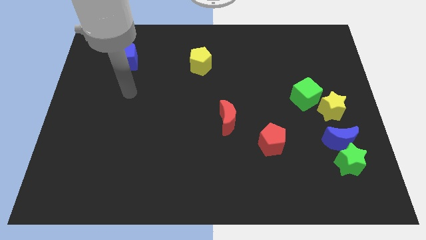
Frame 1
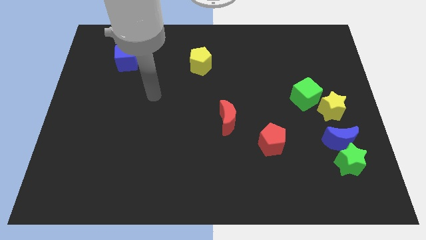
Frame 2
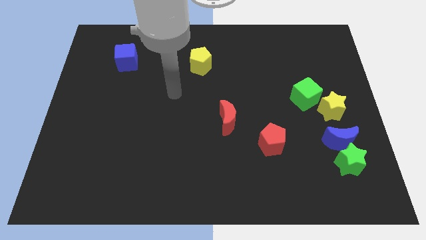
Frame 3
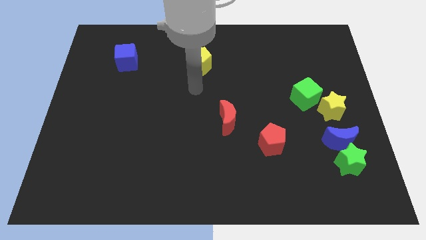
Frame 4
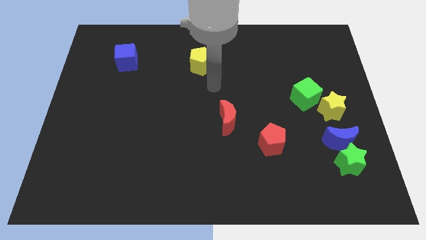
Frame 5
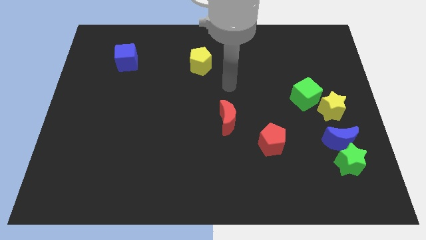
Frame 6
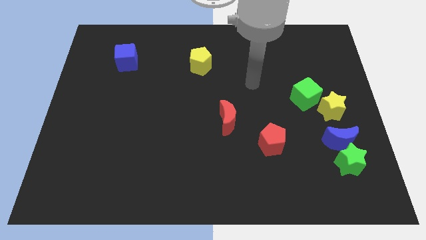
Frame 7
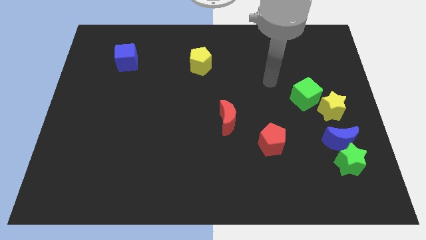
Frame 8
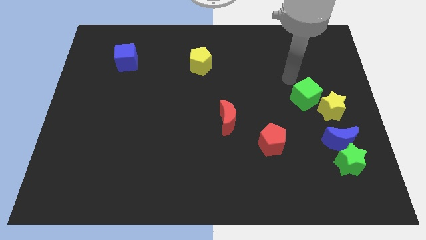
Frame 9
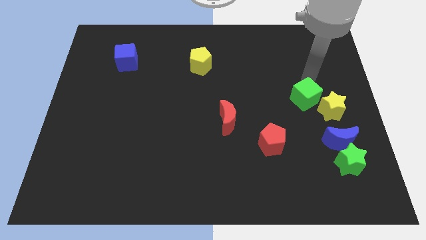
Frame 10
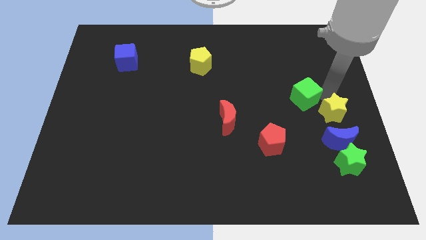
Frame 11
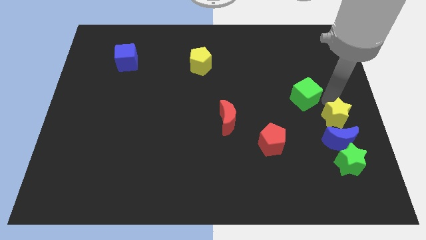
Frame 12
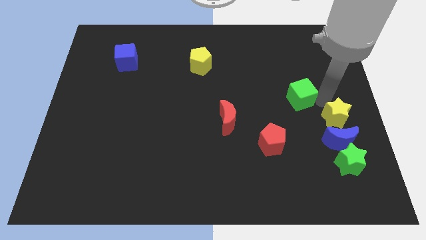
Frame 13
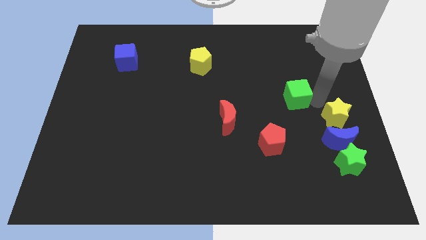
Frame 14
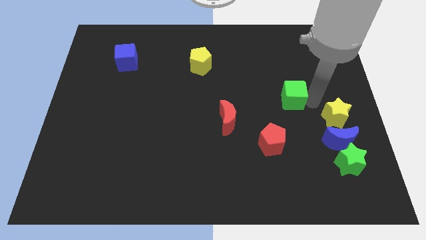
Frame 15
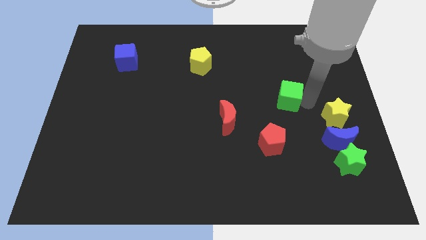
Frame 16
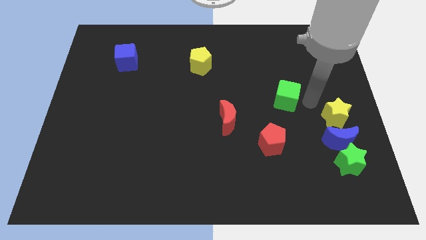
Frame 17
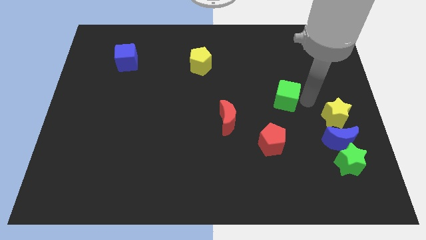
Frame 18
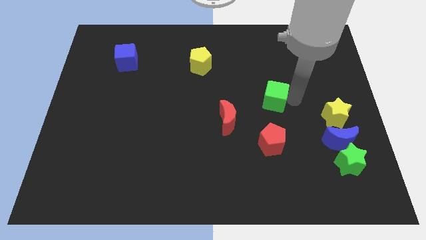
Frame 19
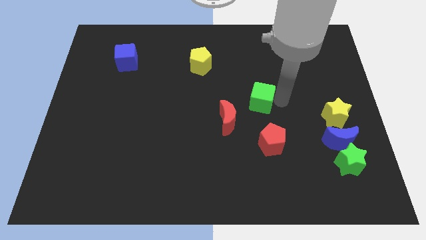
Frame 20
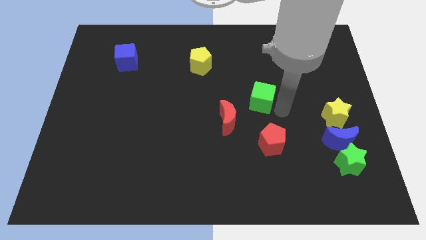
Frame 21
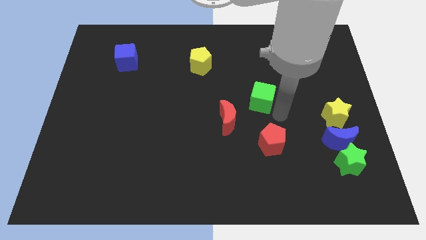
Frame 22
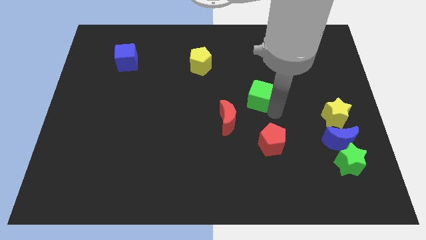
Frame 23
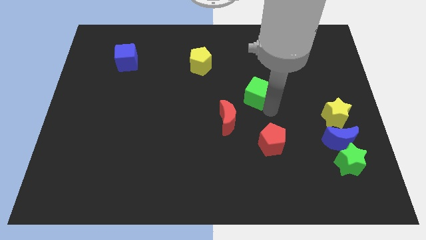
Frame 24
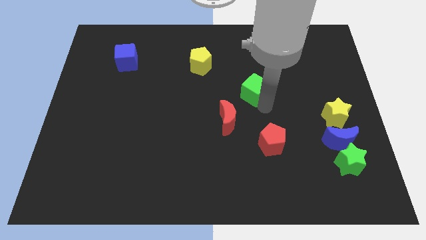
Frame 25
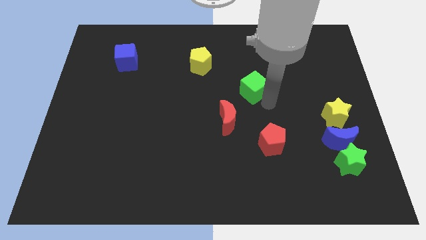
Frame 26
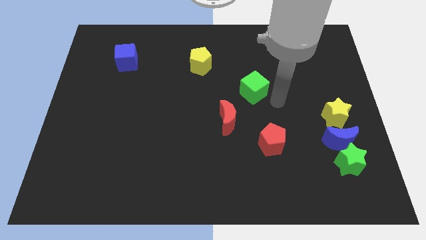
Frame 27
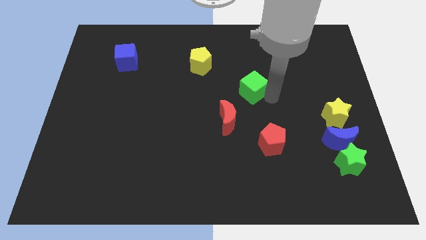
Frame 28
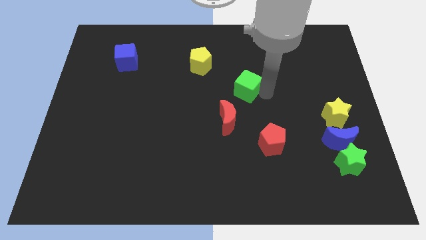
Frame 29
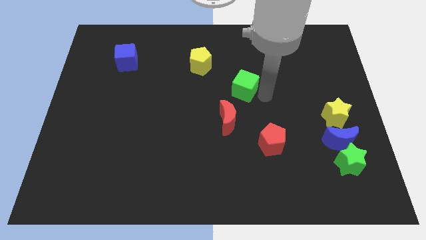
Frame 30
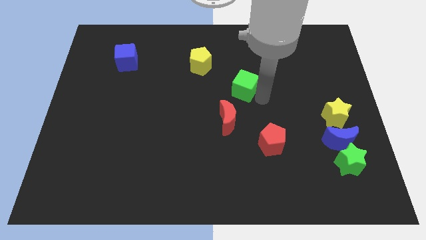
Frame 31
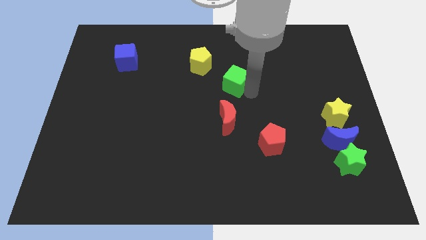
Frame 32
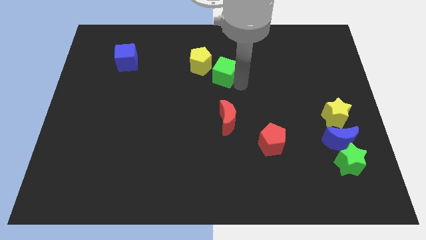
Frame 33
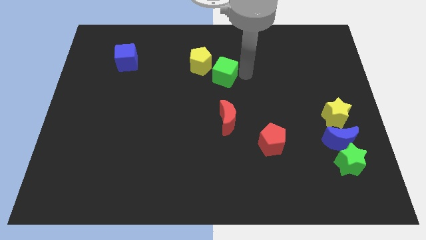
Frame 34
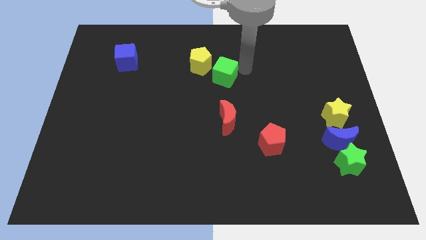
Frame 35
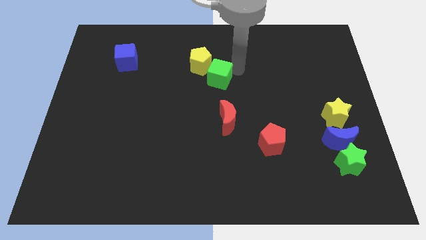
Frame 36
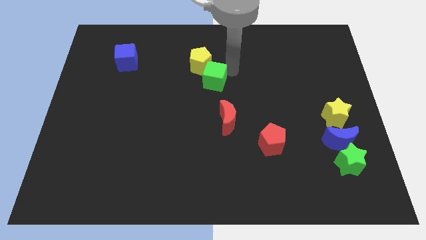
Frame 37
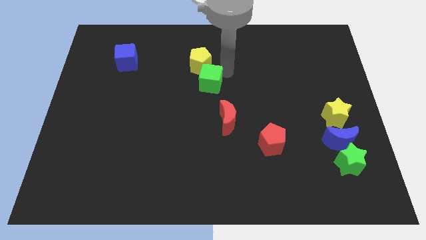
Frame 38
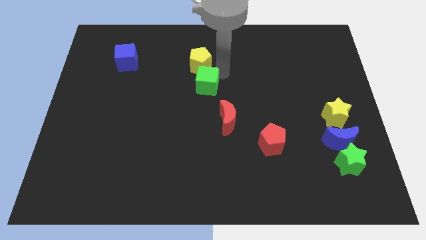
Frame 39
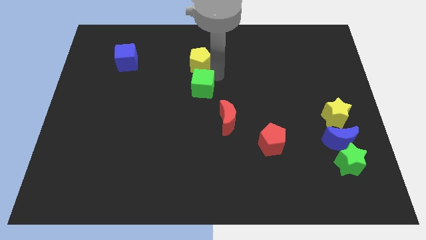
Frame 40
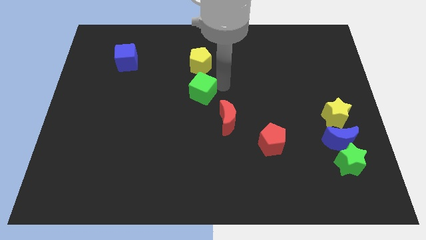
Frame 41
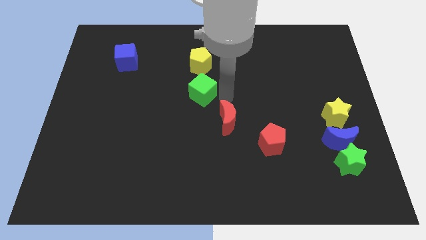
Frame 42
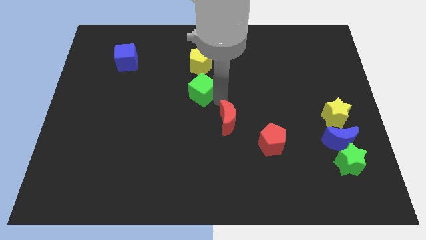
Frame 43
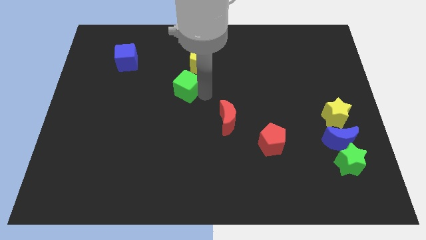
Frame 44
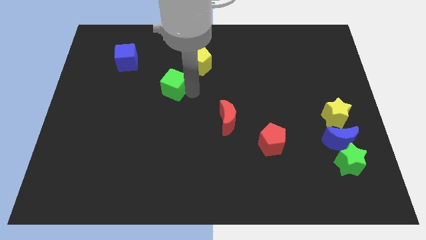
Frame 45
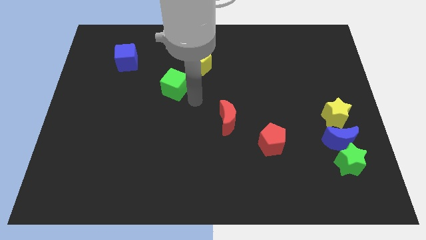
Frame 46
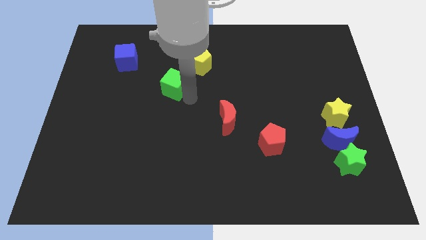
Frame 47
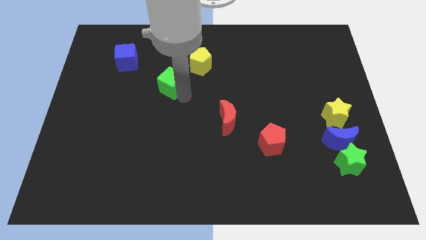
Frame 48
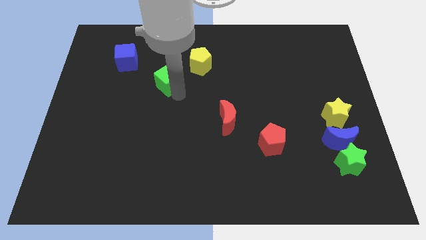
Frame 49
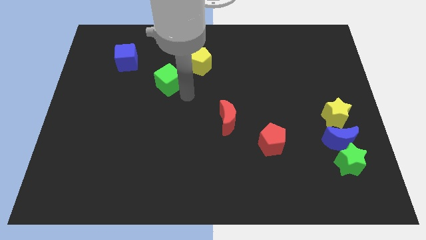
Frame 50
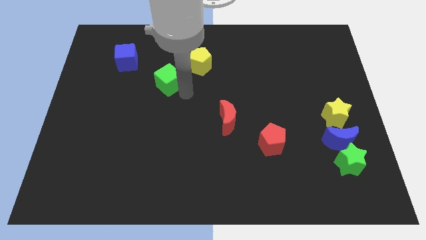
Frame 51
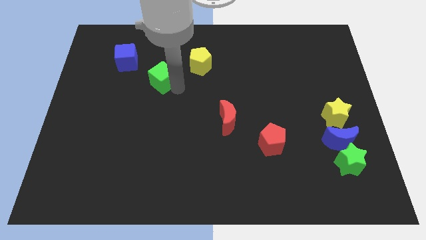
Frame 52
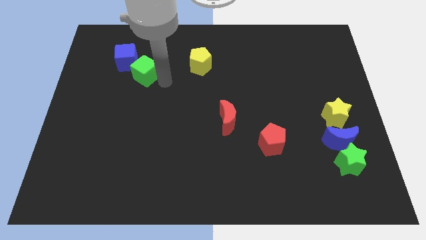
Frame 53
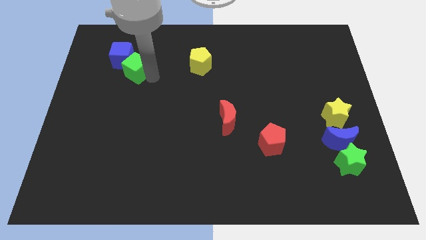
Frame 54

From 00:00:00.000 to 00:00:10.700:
move the green cube close to the blue cube

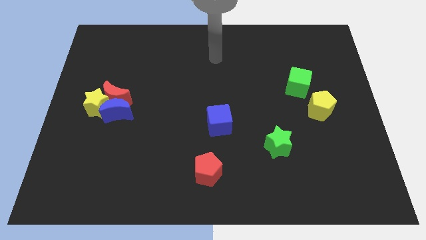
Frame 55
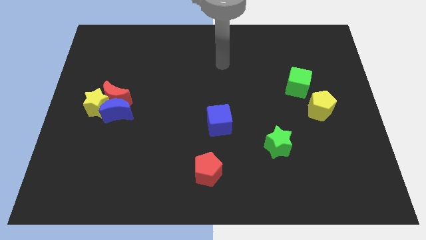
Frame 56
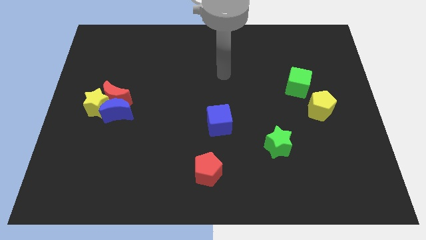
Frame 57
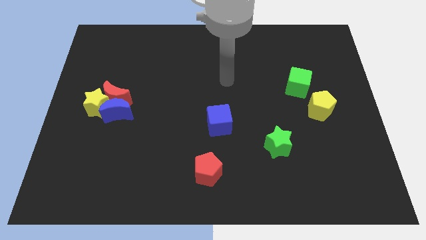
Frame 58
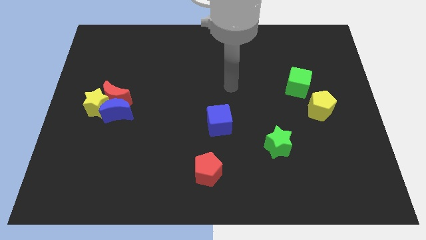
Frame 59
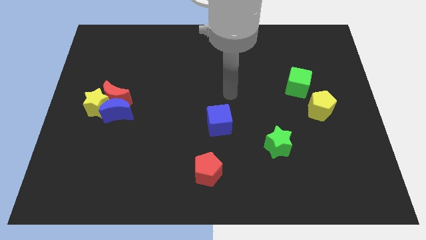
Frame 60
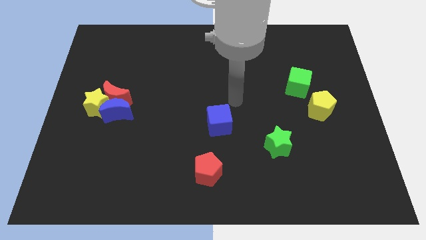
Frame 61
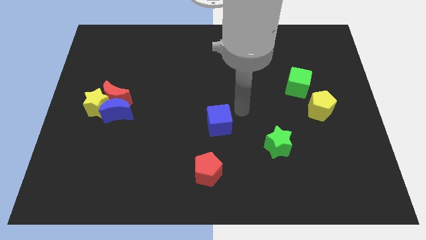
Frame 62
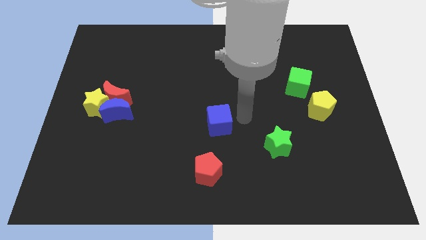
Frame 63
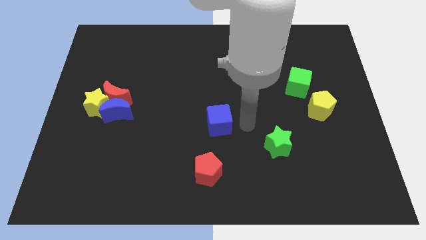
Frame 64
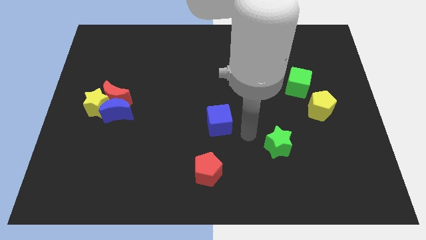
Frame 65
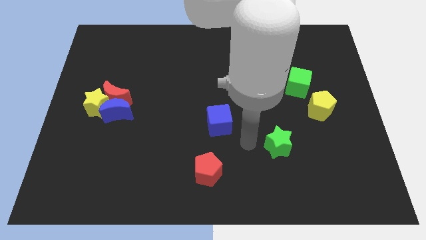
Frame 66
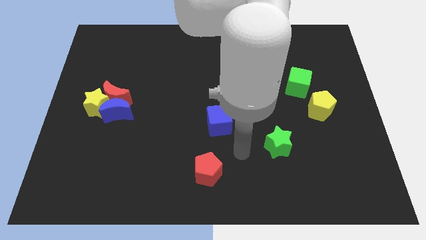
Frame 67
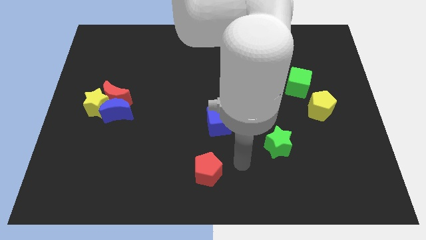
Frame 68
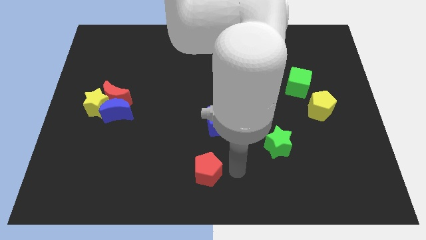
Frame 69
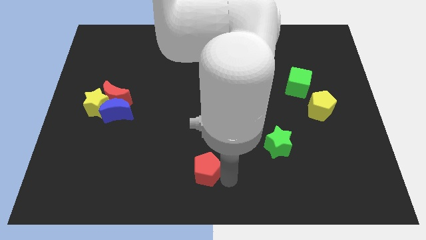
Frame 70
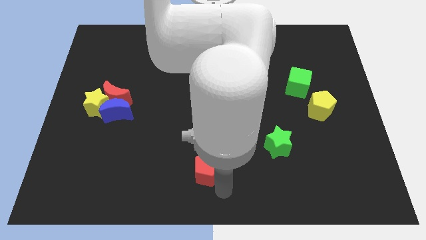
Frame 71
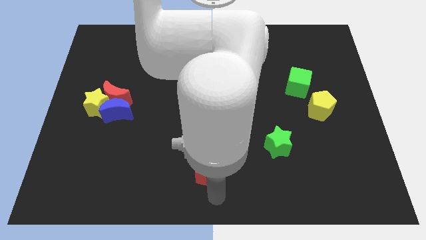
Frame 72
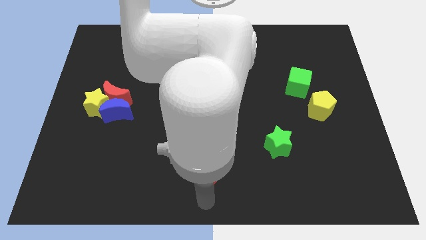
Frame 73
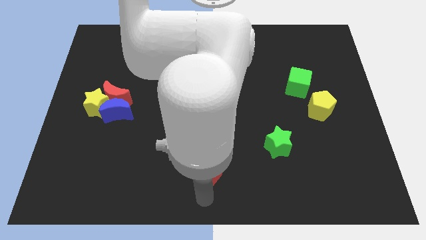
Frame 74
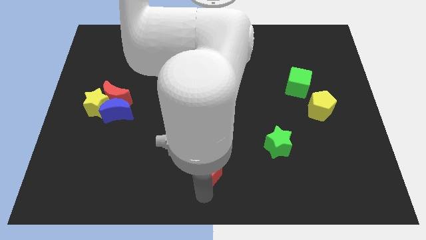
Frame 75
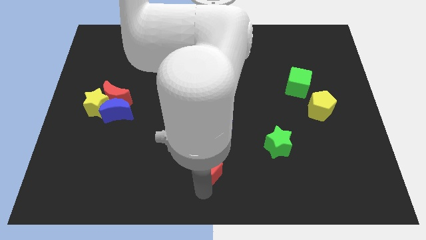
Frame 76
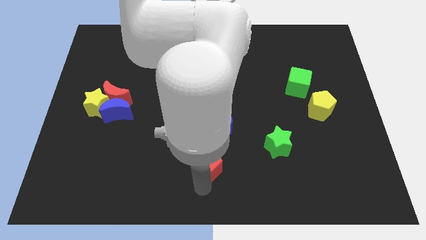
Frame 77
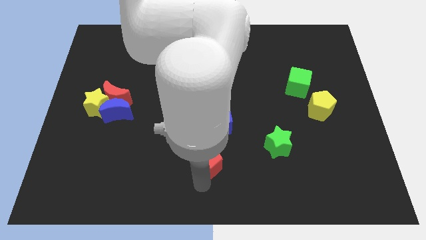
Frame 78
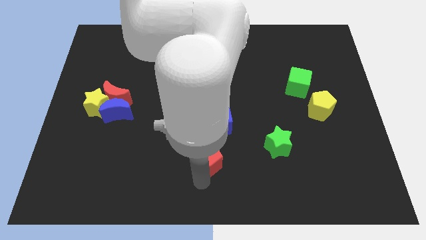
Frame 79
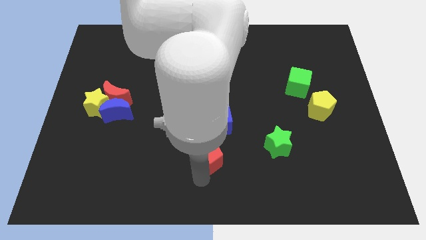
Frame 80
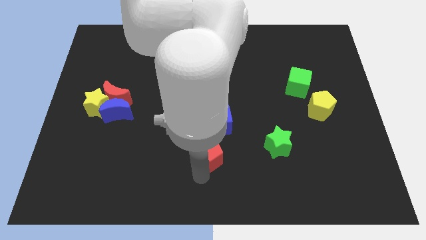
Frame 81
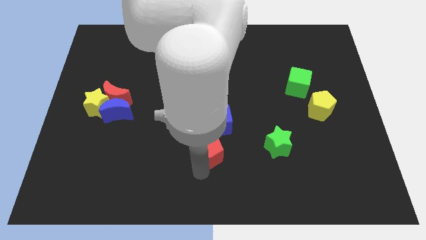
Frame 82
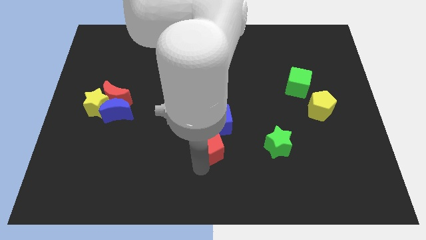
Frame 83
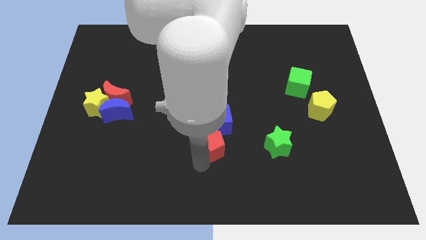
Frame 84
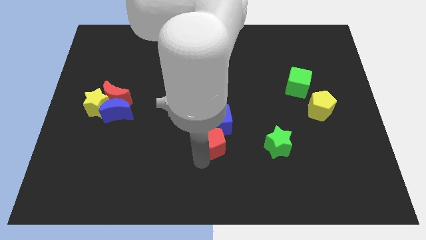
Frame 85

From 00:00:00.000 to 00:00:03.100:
put the red pentagon next to the blue cube
